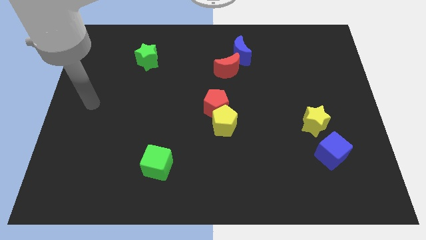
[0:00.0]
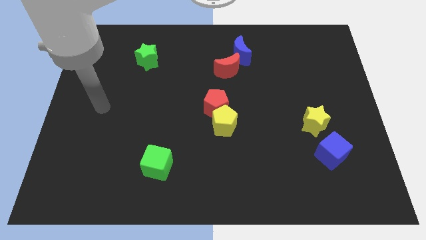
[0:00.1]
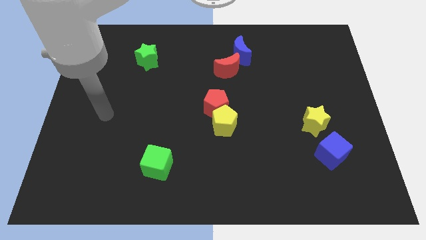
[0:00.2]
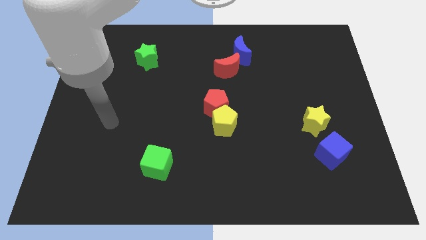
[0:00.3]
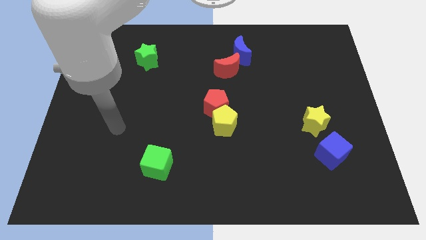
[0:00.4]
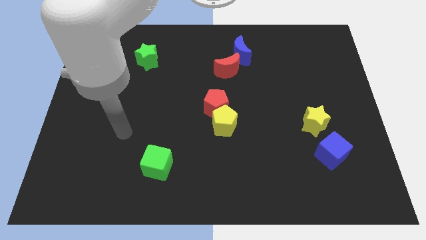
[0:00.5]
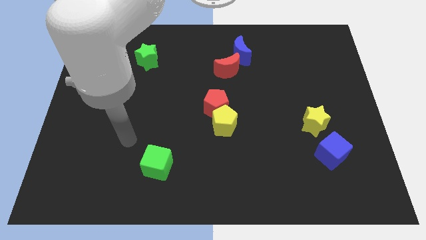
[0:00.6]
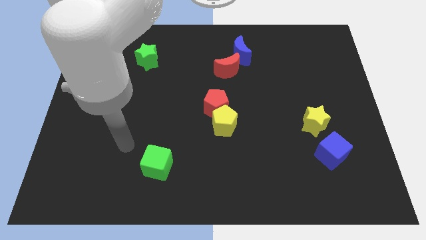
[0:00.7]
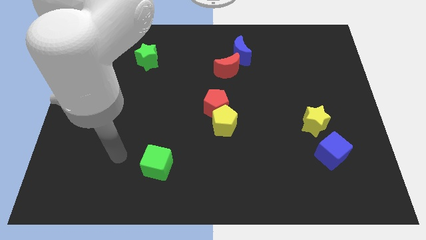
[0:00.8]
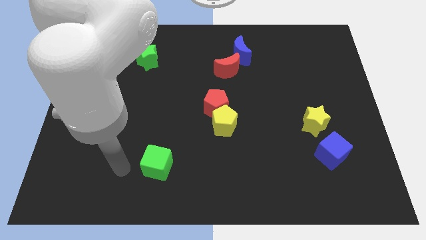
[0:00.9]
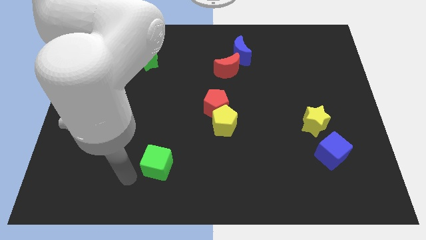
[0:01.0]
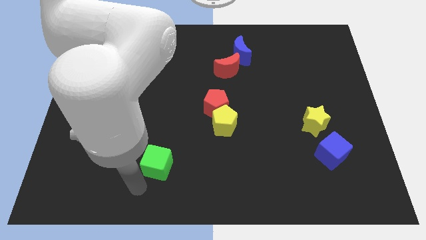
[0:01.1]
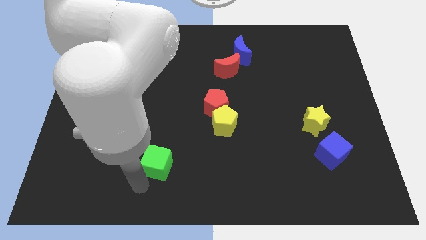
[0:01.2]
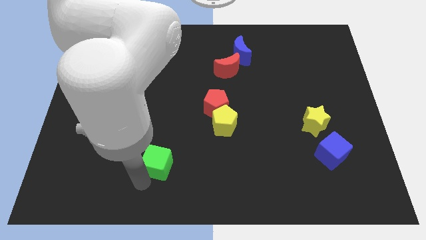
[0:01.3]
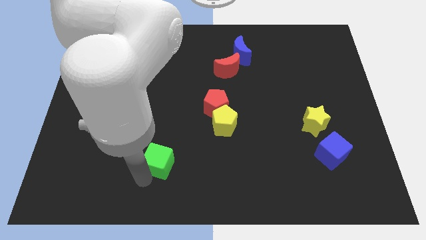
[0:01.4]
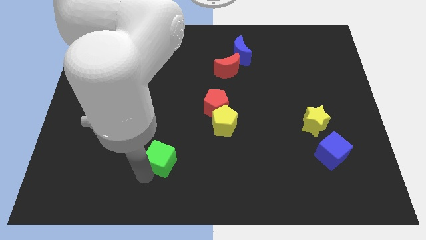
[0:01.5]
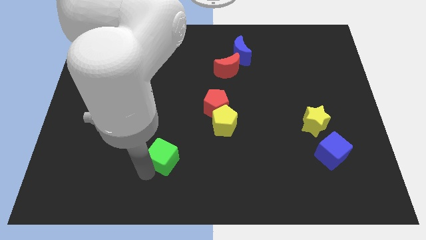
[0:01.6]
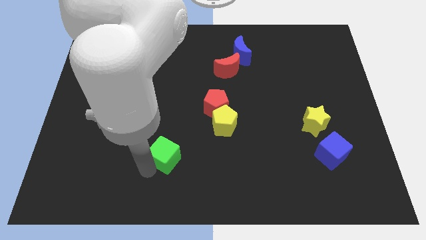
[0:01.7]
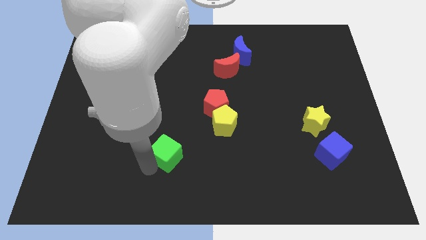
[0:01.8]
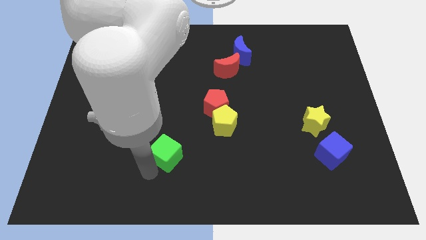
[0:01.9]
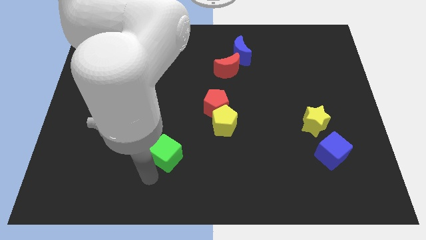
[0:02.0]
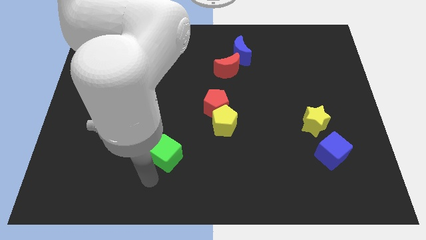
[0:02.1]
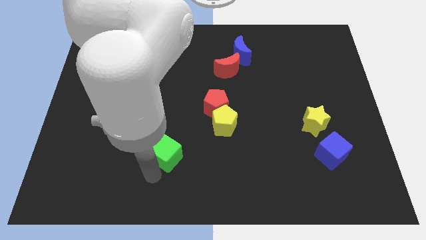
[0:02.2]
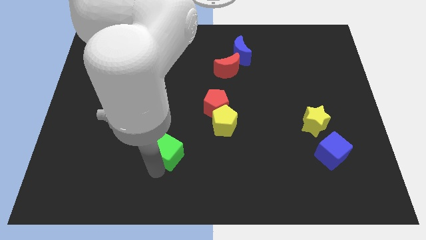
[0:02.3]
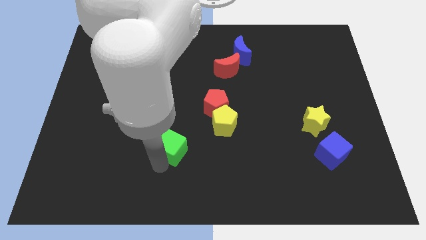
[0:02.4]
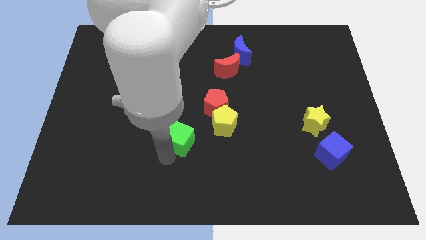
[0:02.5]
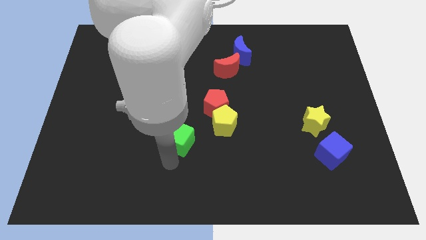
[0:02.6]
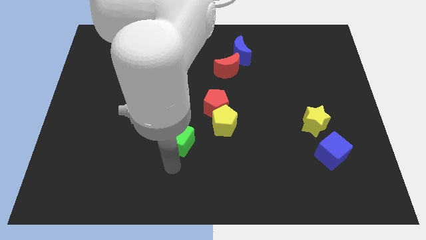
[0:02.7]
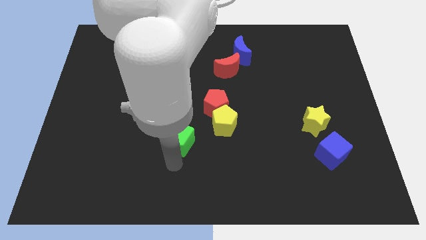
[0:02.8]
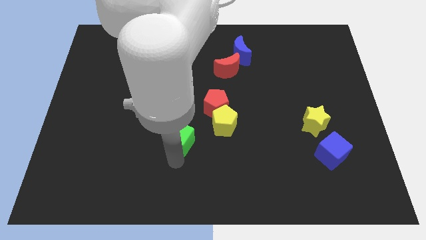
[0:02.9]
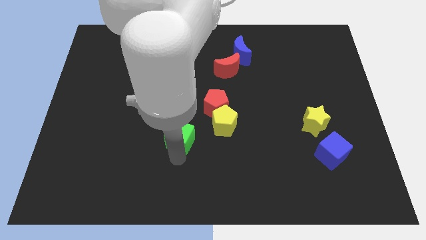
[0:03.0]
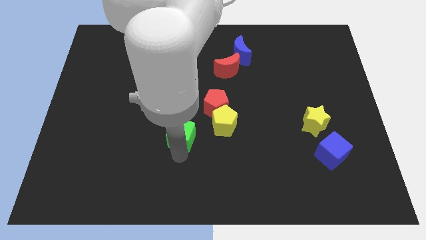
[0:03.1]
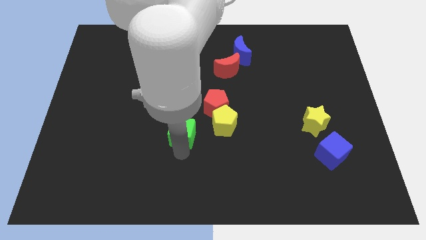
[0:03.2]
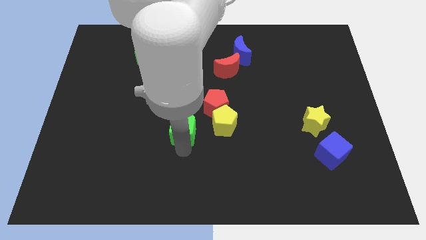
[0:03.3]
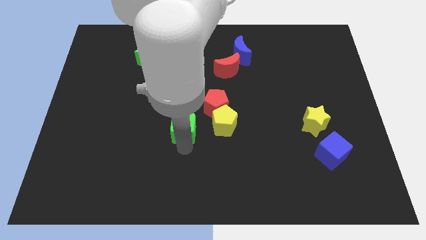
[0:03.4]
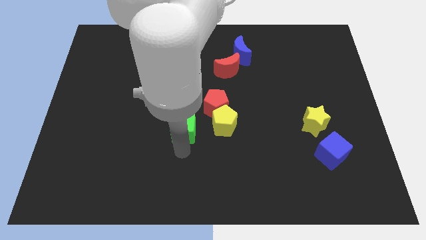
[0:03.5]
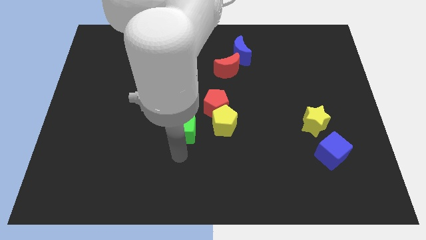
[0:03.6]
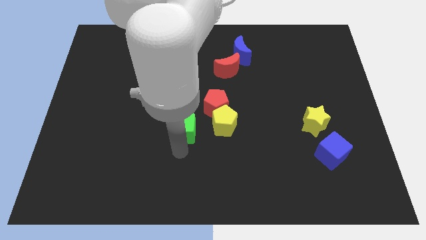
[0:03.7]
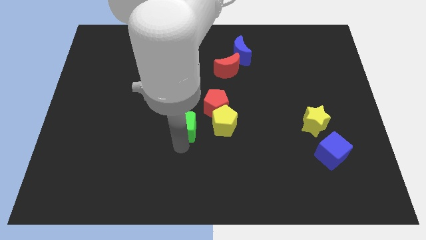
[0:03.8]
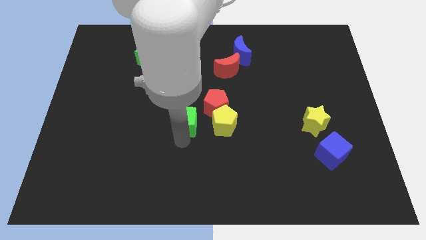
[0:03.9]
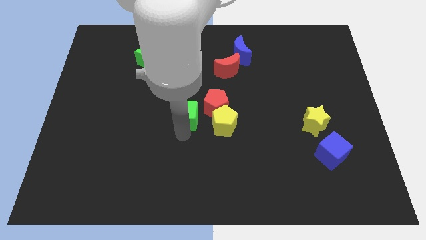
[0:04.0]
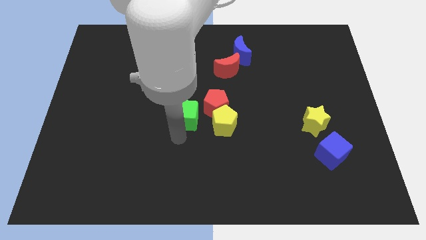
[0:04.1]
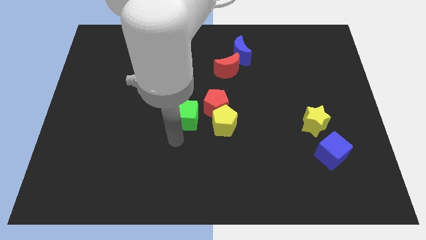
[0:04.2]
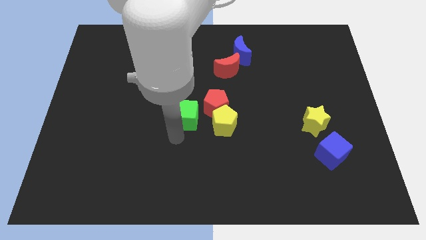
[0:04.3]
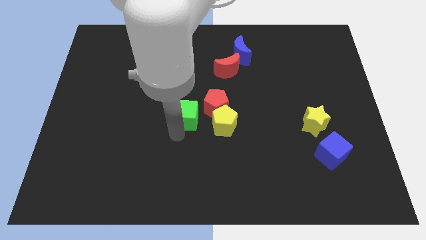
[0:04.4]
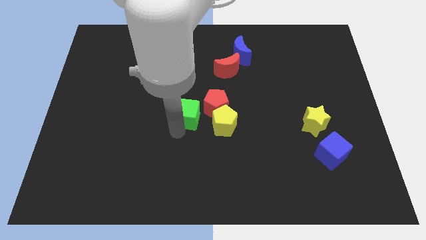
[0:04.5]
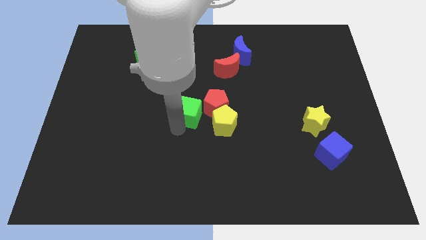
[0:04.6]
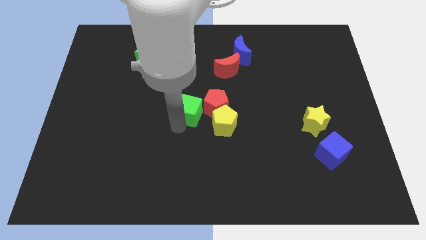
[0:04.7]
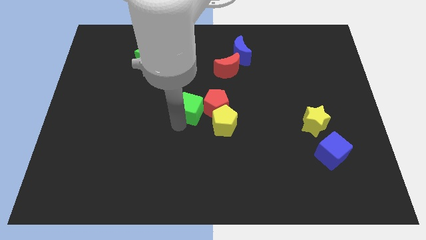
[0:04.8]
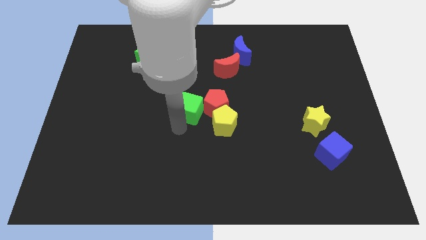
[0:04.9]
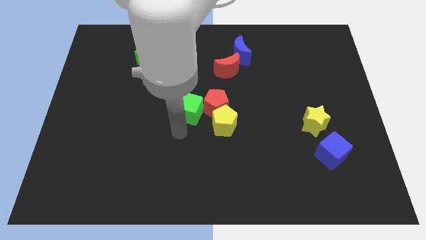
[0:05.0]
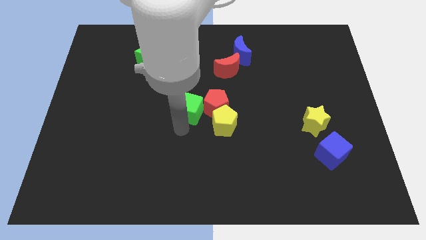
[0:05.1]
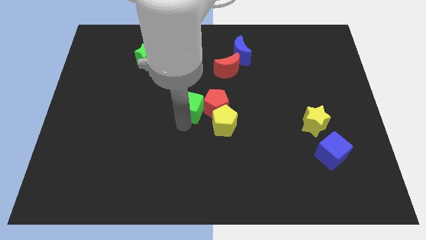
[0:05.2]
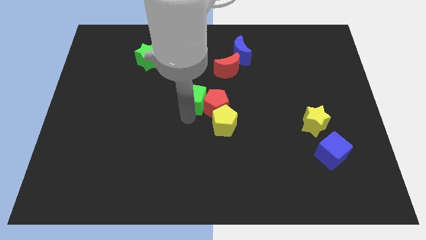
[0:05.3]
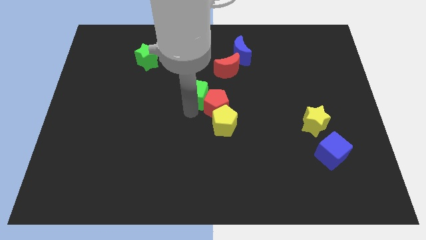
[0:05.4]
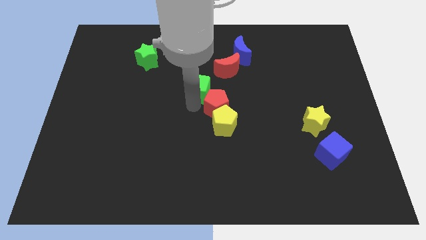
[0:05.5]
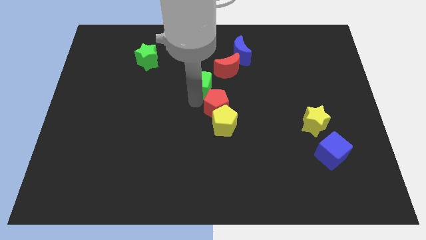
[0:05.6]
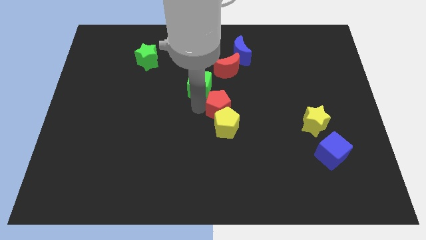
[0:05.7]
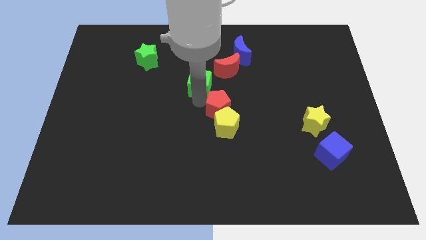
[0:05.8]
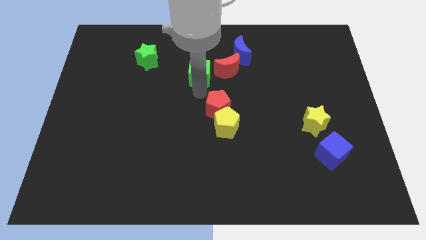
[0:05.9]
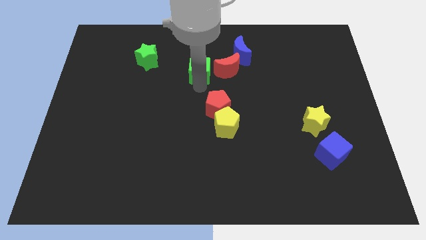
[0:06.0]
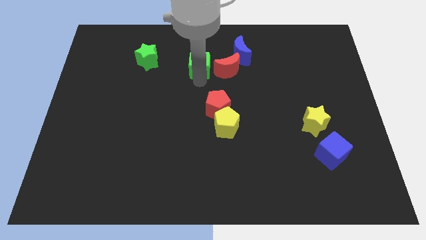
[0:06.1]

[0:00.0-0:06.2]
push the green cube left of the blue moon

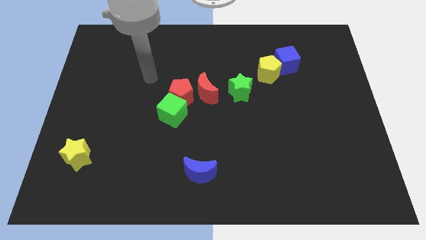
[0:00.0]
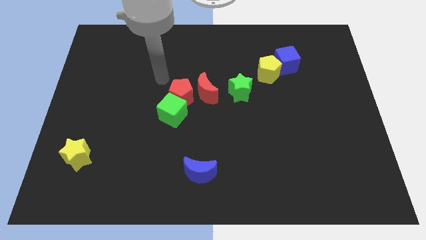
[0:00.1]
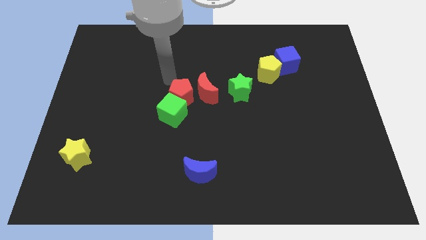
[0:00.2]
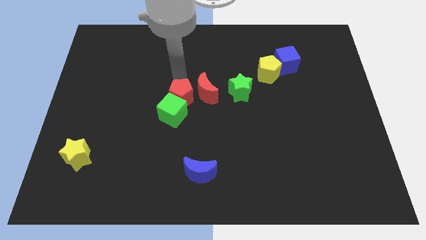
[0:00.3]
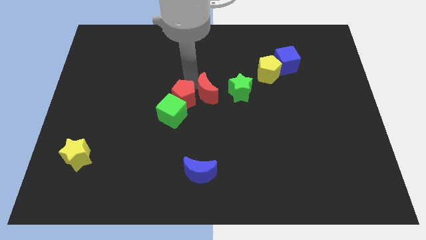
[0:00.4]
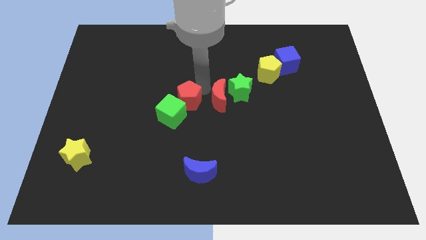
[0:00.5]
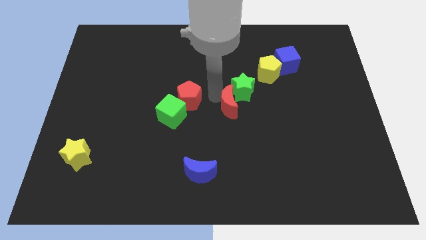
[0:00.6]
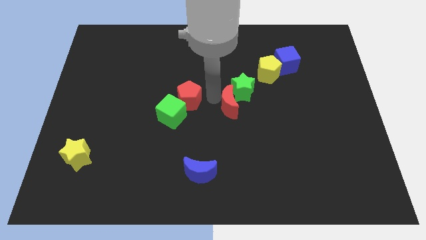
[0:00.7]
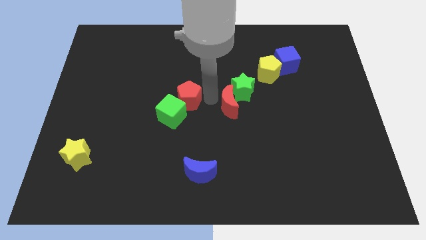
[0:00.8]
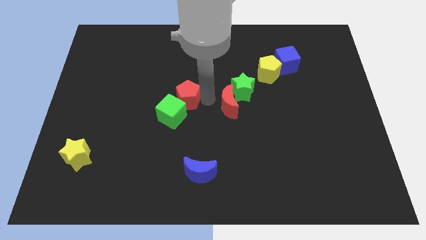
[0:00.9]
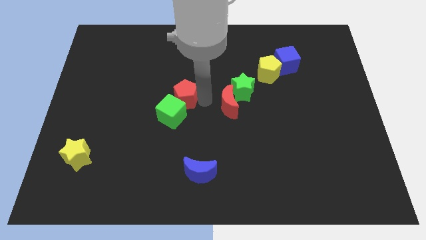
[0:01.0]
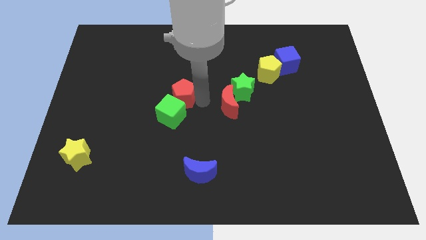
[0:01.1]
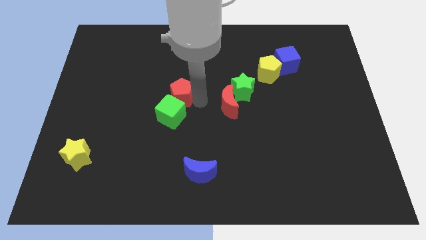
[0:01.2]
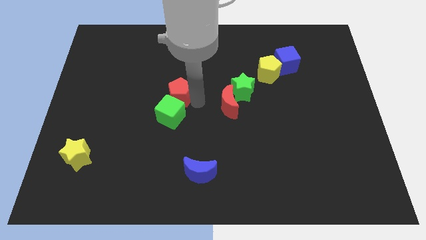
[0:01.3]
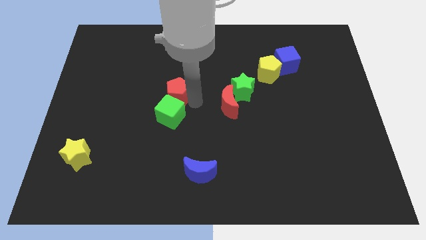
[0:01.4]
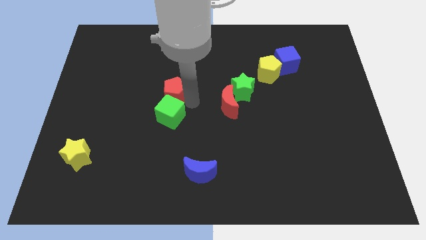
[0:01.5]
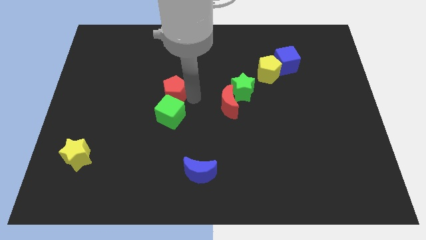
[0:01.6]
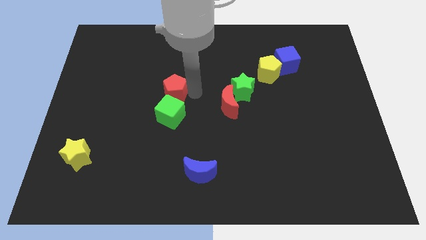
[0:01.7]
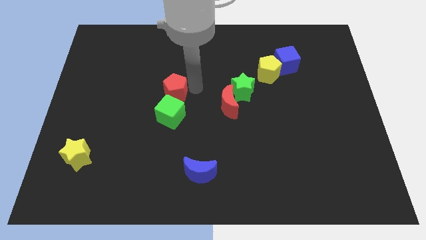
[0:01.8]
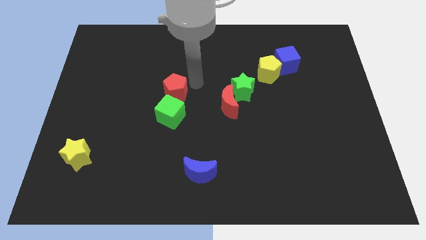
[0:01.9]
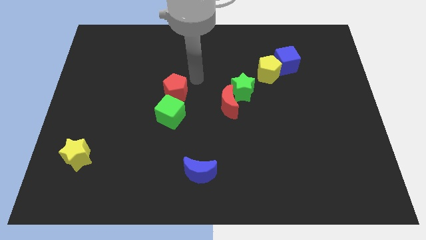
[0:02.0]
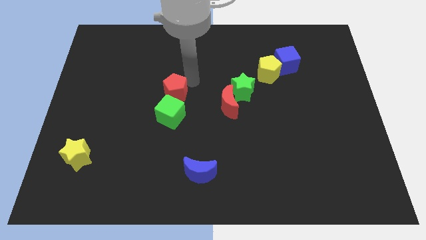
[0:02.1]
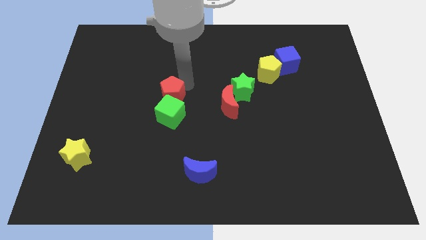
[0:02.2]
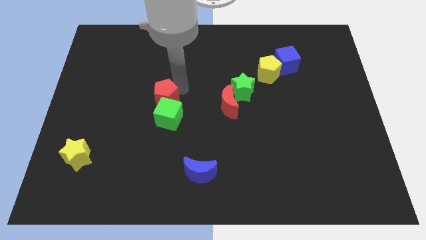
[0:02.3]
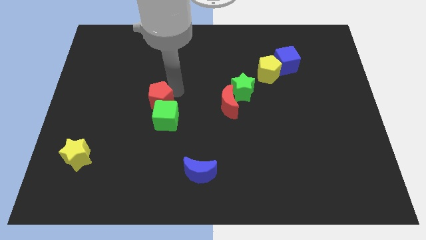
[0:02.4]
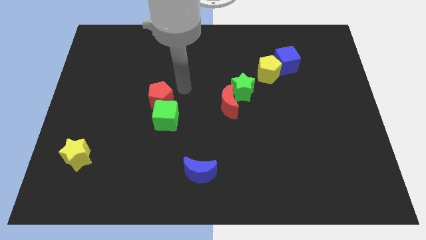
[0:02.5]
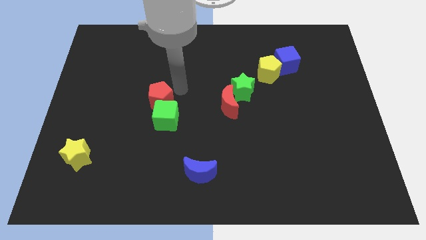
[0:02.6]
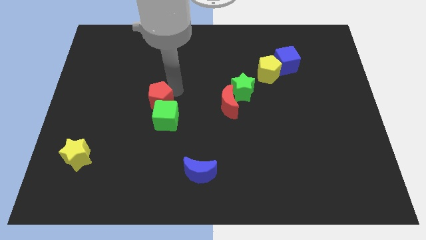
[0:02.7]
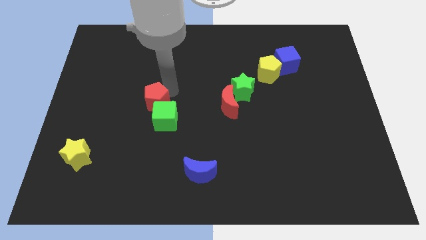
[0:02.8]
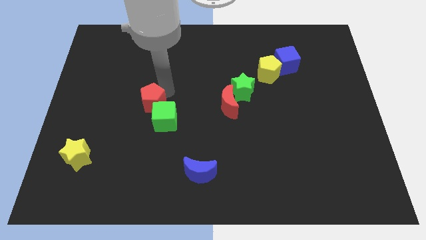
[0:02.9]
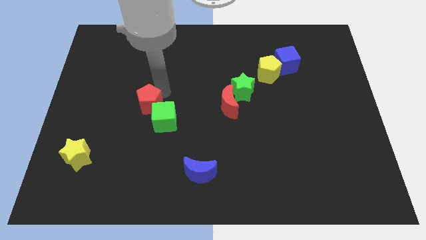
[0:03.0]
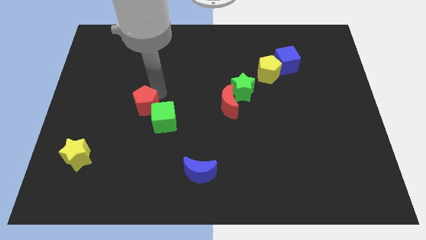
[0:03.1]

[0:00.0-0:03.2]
push the red pentagon to the left of the green cube
